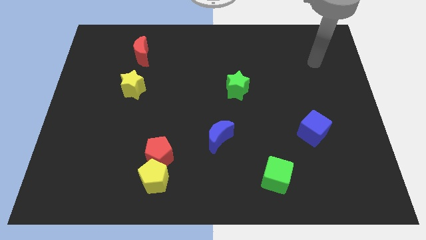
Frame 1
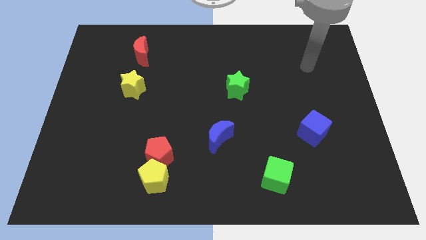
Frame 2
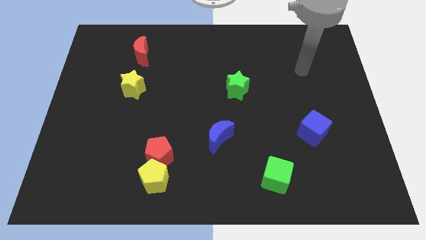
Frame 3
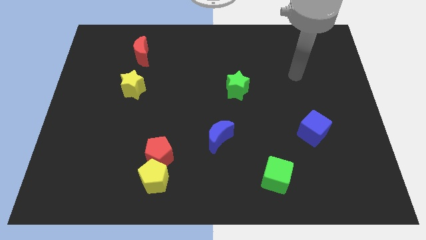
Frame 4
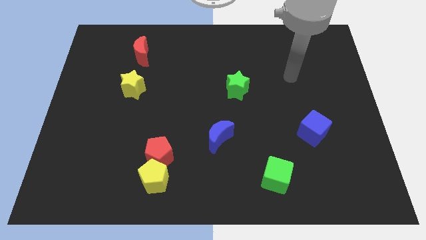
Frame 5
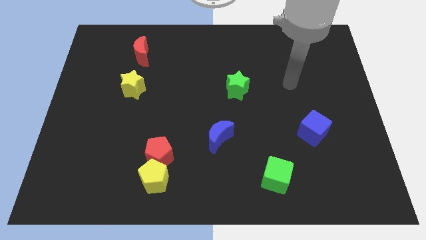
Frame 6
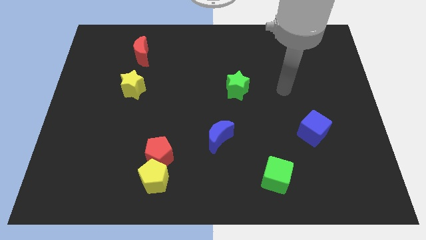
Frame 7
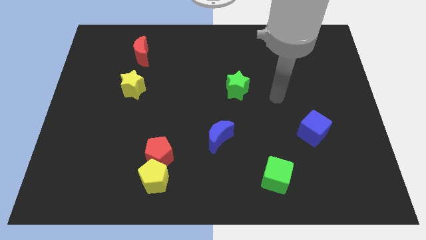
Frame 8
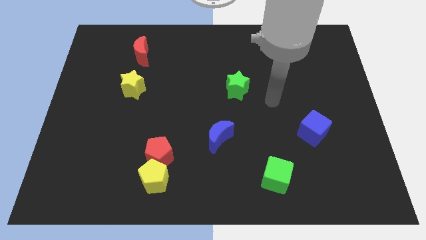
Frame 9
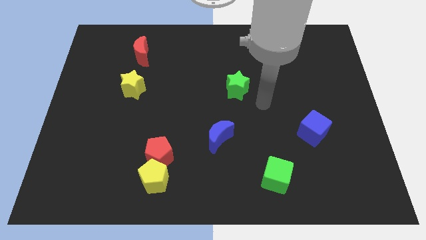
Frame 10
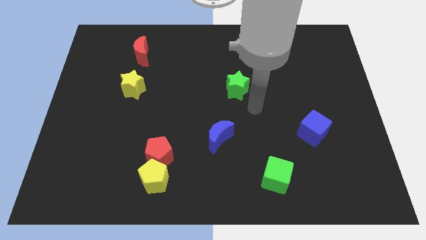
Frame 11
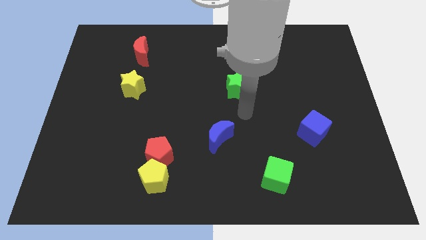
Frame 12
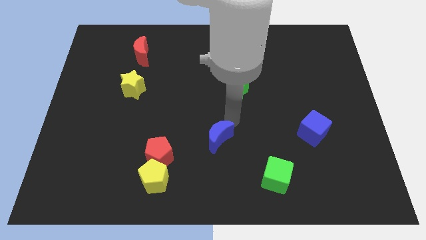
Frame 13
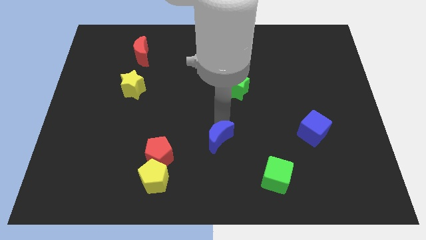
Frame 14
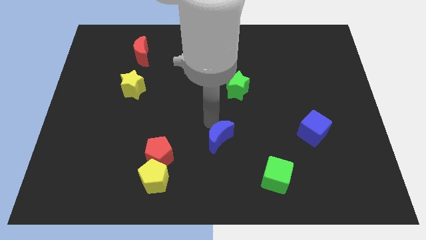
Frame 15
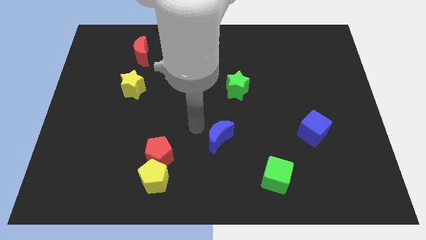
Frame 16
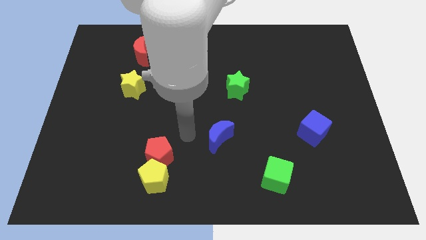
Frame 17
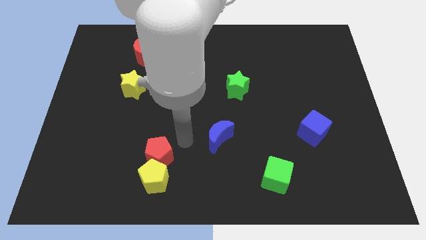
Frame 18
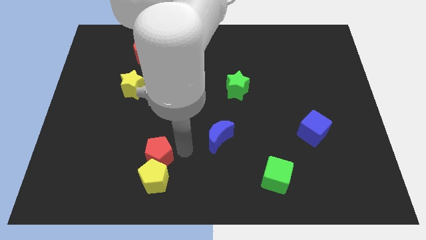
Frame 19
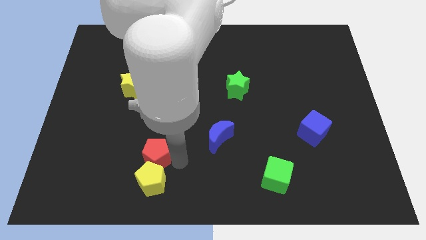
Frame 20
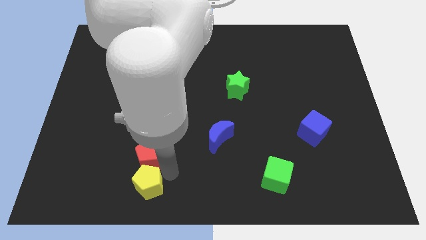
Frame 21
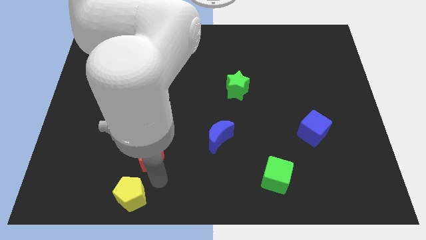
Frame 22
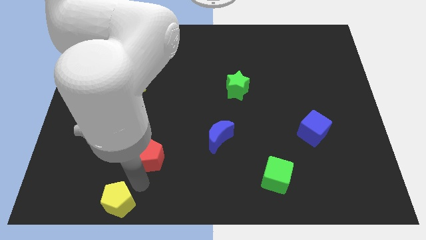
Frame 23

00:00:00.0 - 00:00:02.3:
move the red pentagon away from the yellow pentagon

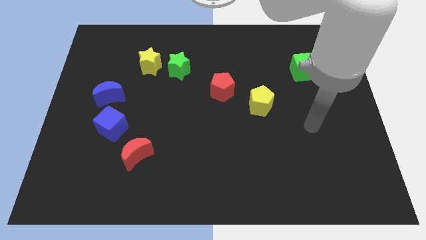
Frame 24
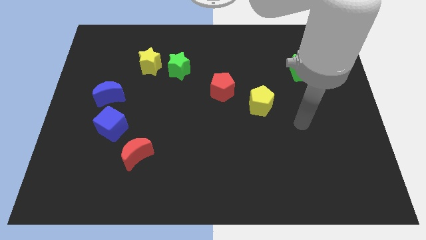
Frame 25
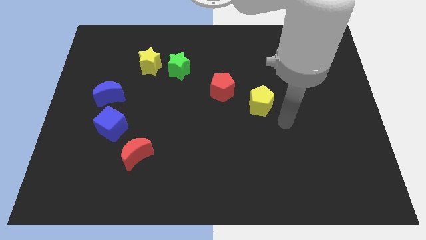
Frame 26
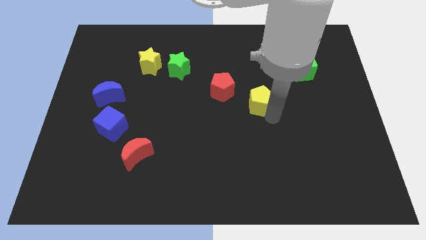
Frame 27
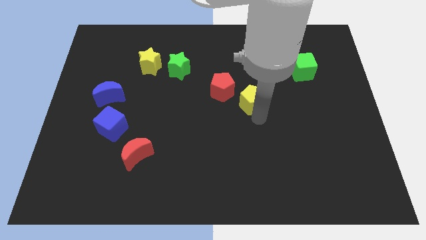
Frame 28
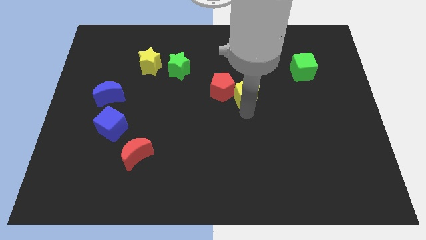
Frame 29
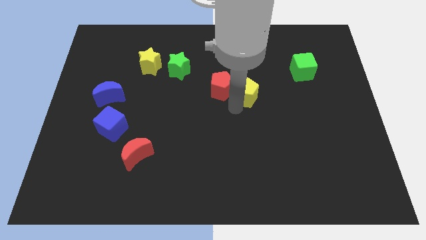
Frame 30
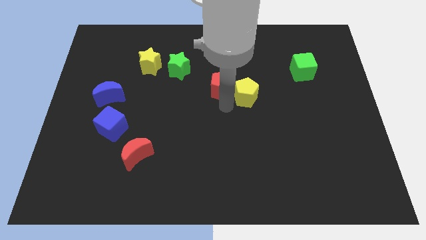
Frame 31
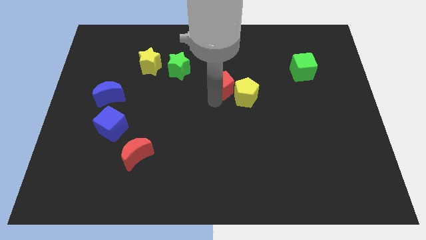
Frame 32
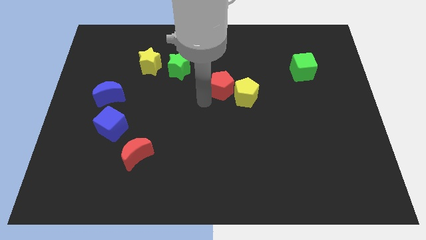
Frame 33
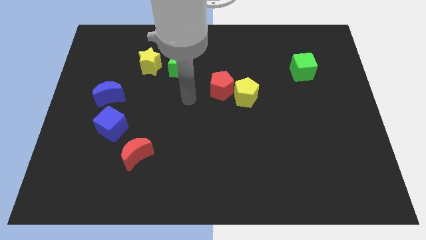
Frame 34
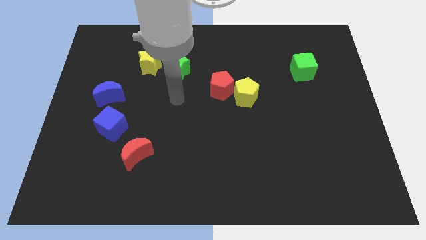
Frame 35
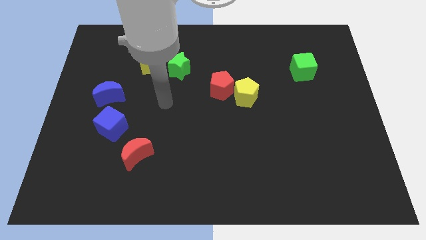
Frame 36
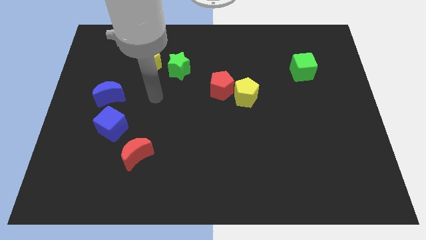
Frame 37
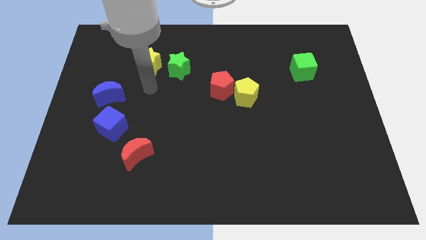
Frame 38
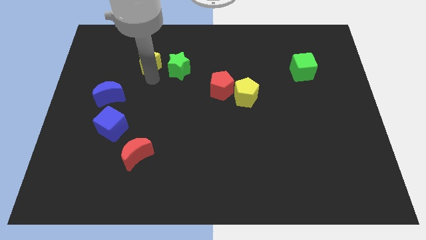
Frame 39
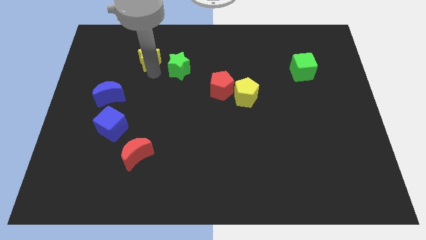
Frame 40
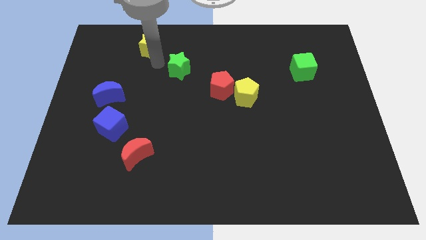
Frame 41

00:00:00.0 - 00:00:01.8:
separate the green star from the yellow star

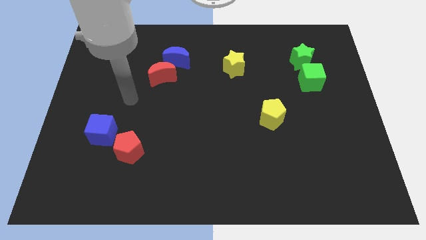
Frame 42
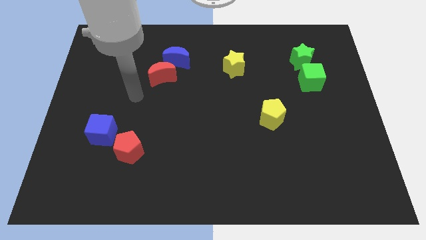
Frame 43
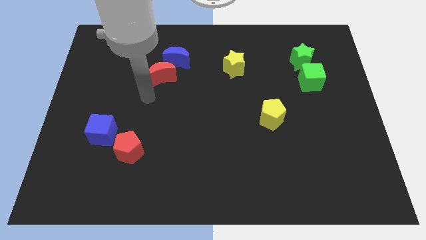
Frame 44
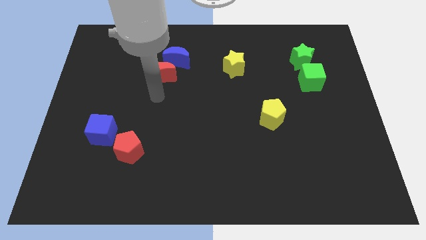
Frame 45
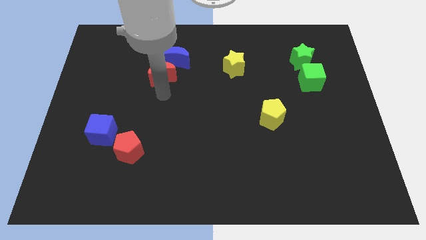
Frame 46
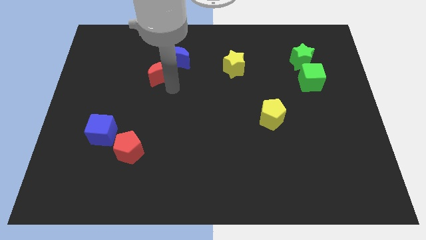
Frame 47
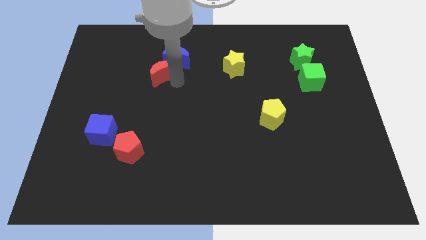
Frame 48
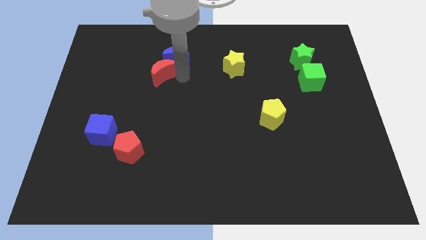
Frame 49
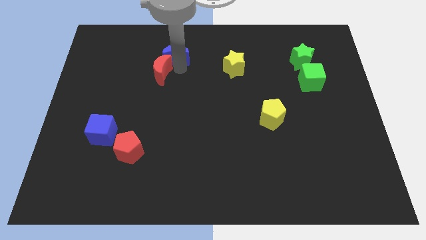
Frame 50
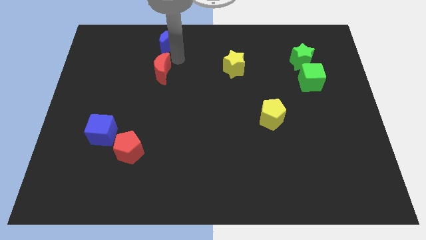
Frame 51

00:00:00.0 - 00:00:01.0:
pull the red moon apart from the blue moon

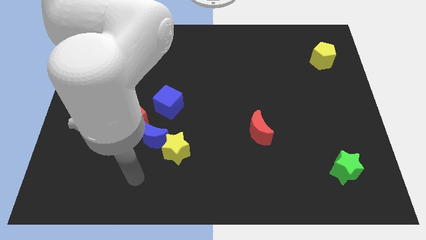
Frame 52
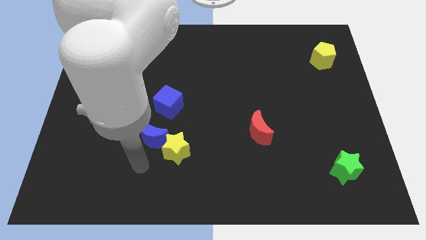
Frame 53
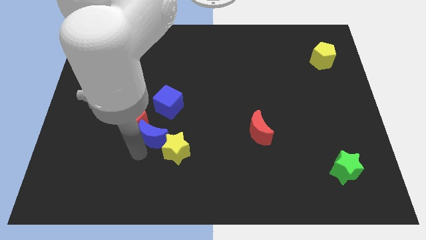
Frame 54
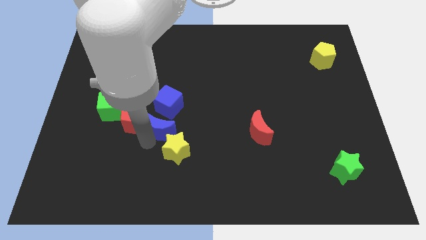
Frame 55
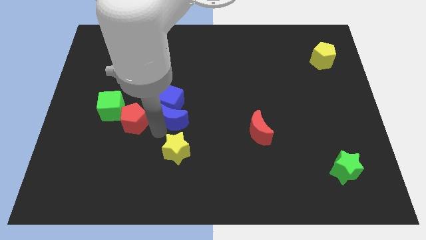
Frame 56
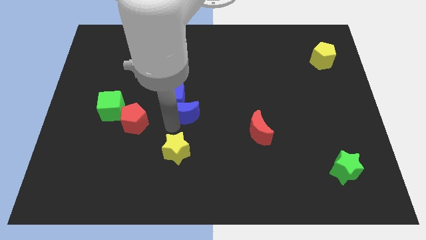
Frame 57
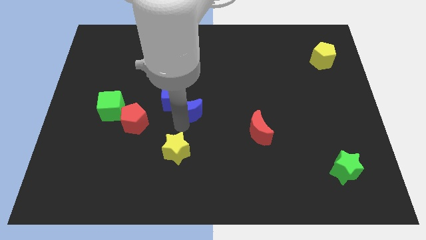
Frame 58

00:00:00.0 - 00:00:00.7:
move the yellow star away from the blue moon

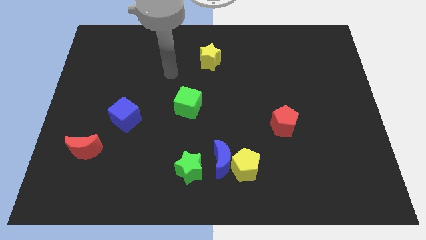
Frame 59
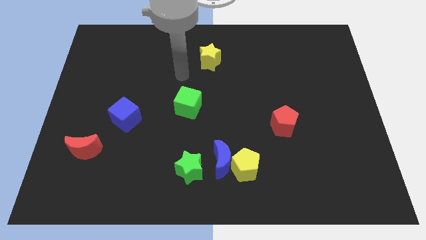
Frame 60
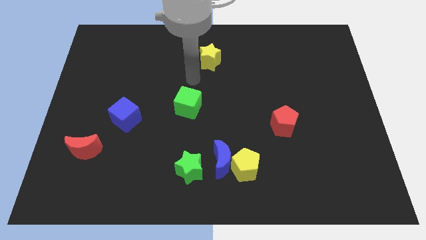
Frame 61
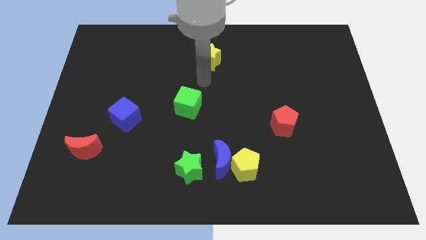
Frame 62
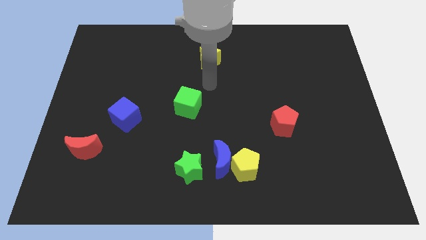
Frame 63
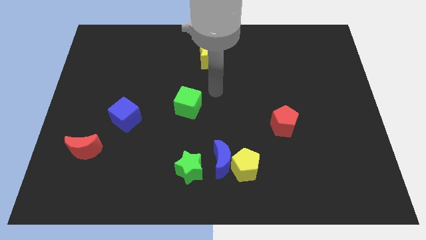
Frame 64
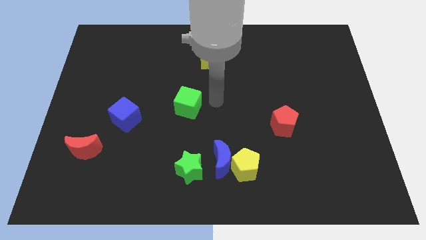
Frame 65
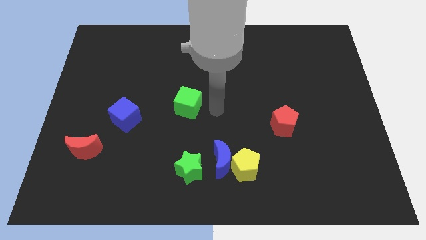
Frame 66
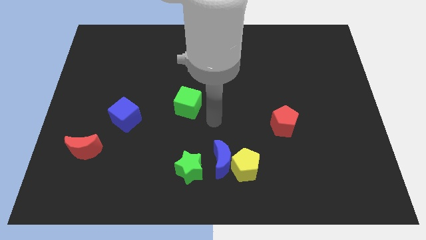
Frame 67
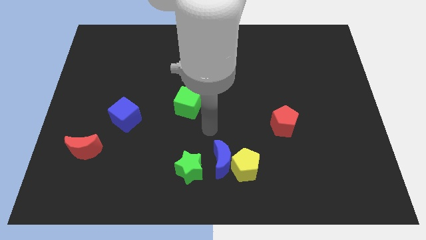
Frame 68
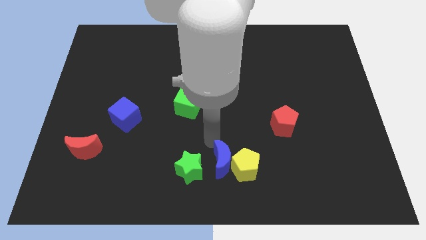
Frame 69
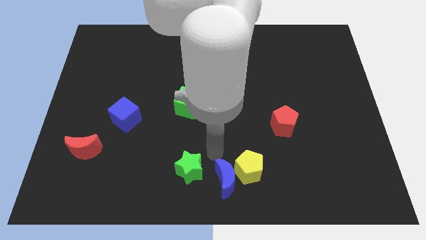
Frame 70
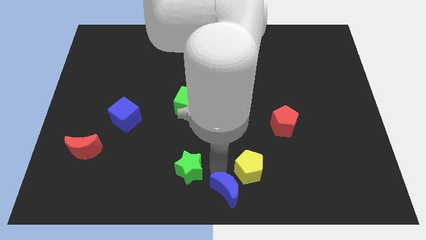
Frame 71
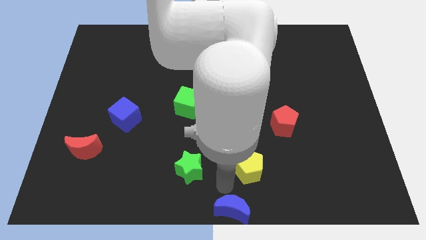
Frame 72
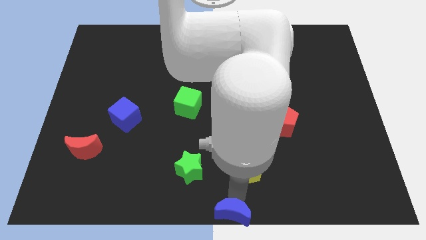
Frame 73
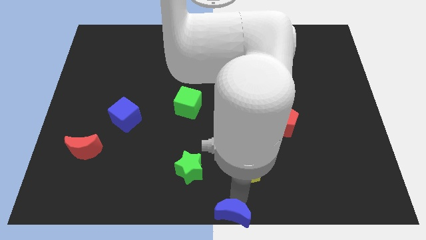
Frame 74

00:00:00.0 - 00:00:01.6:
separate the yellow pentagon from the blue moon

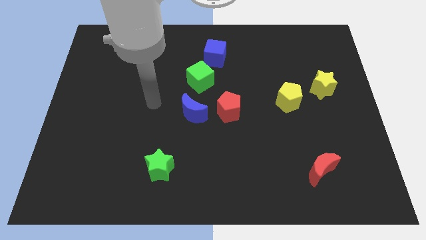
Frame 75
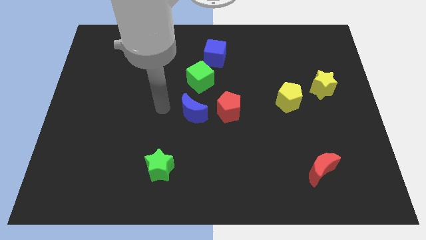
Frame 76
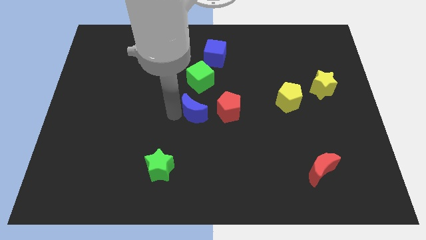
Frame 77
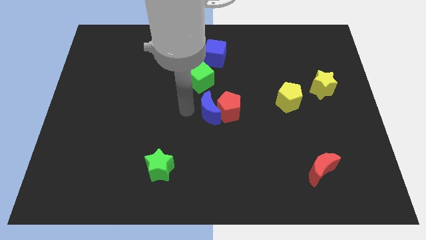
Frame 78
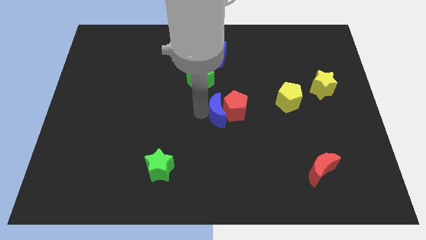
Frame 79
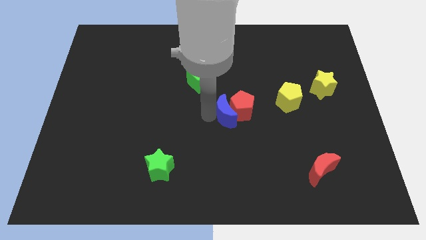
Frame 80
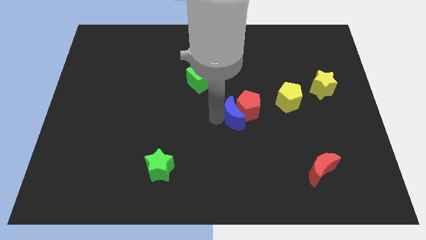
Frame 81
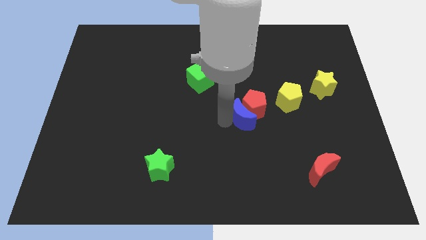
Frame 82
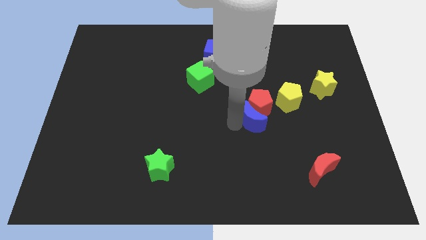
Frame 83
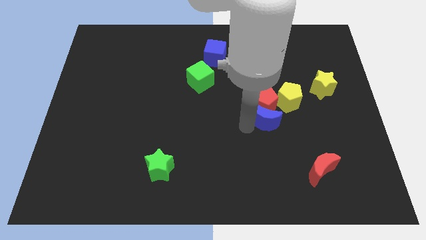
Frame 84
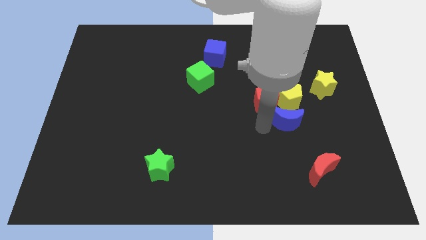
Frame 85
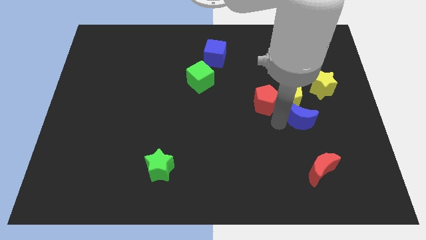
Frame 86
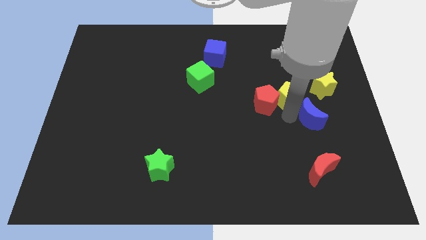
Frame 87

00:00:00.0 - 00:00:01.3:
move the red pentagon away from the blue moon

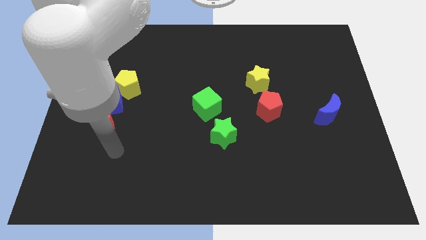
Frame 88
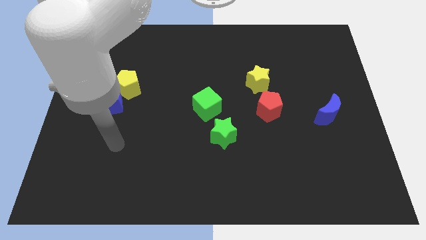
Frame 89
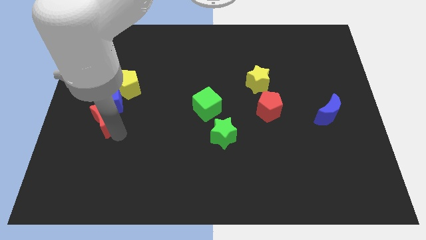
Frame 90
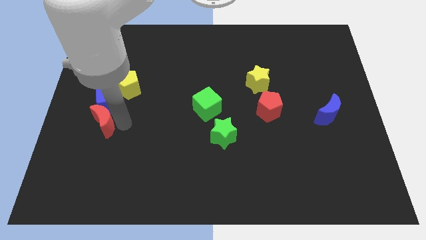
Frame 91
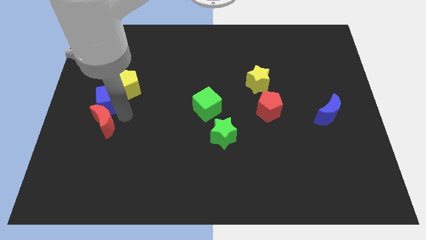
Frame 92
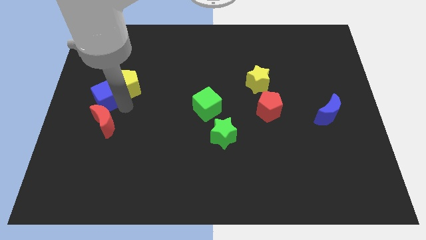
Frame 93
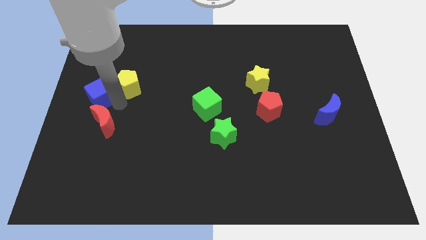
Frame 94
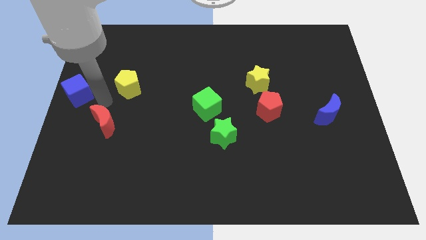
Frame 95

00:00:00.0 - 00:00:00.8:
move the red moon away from the blue cube
